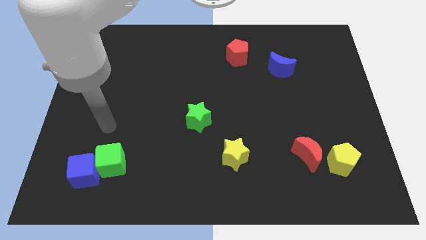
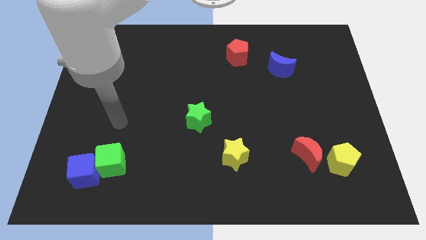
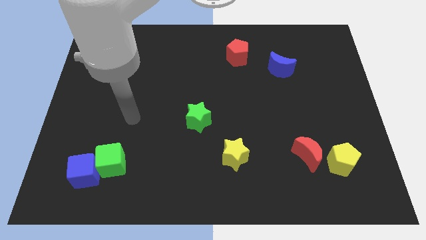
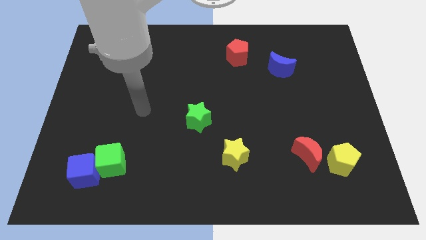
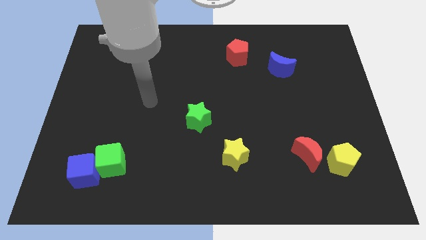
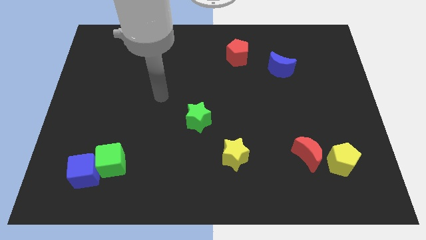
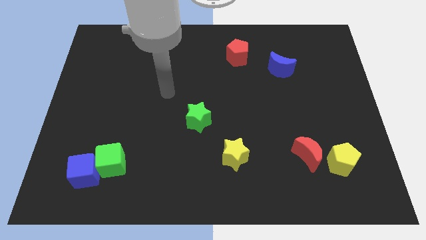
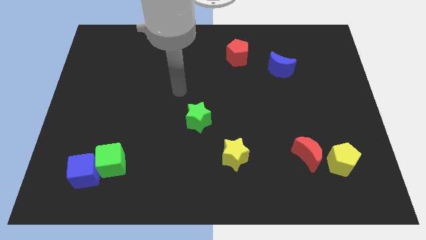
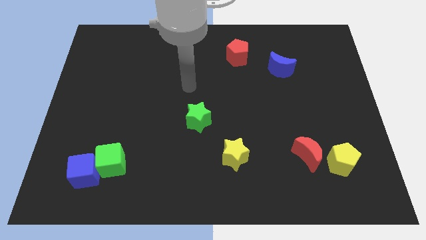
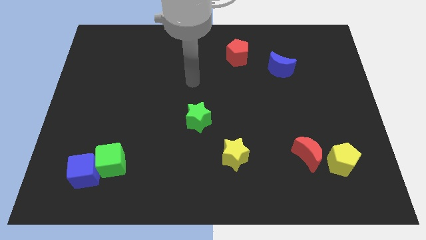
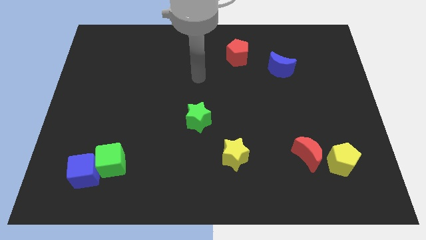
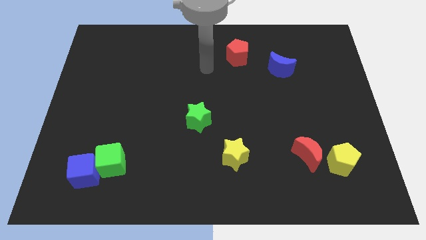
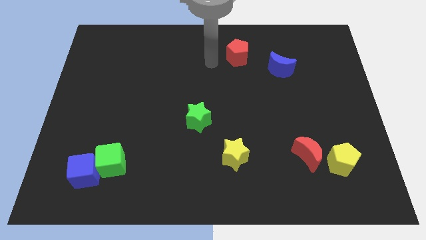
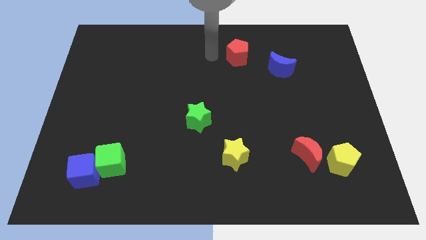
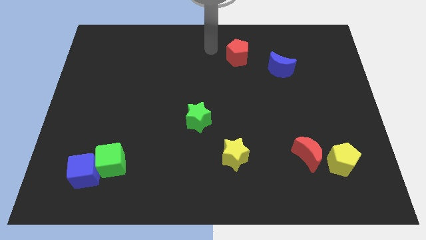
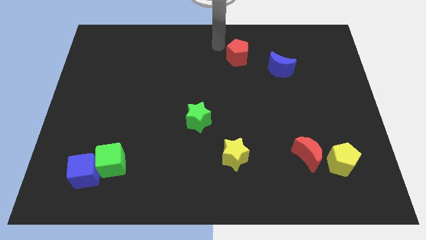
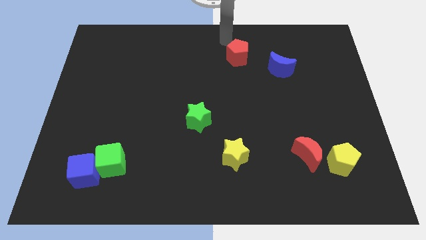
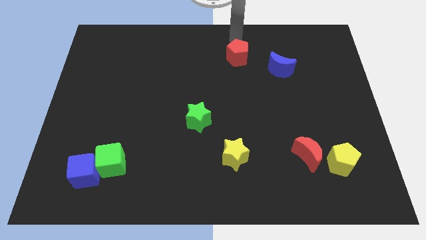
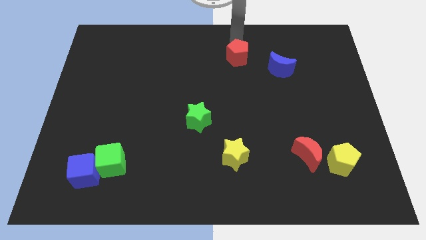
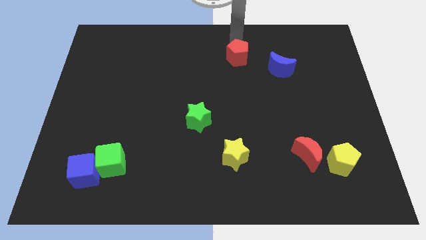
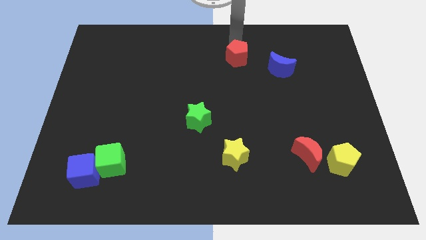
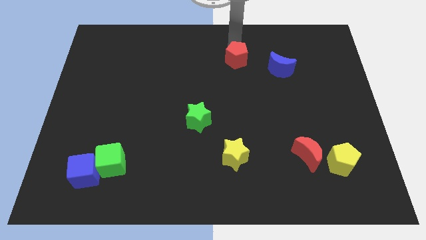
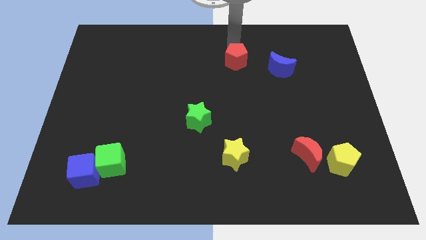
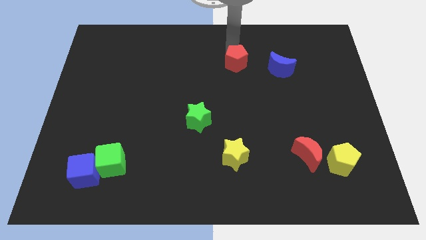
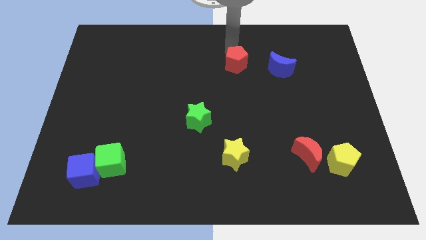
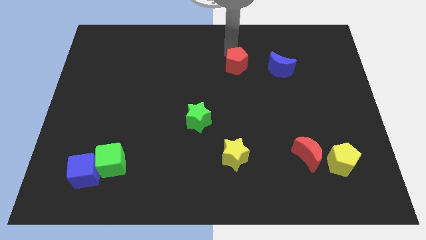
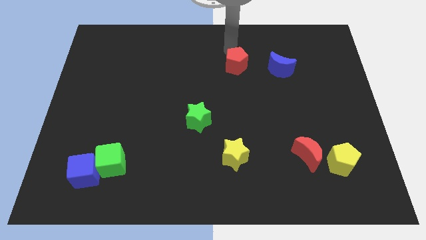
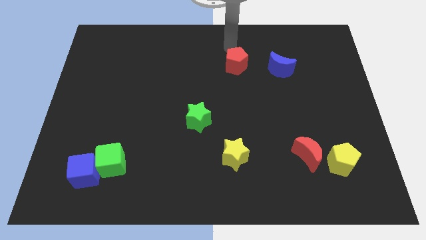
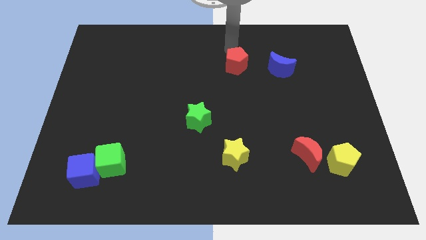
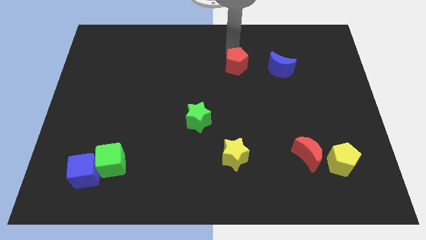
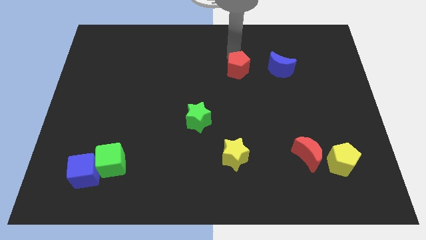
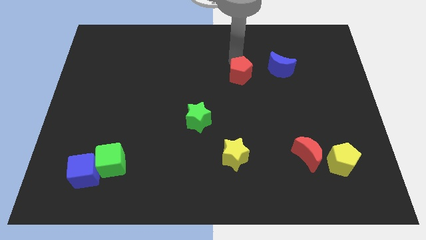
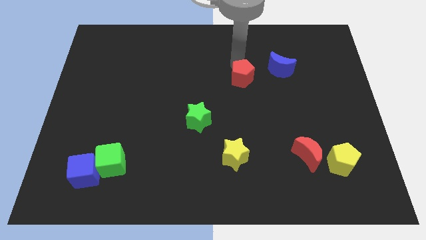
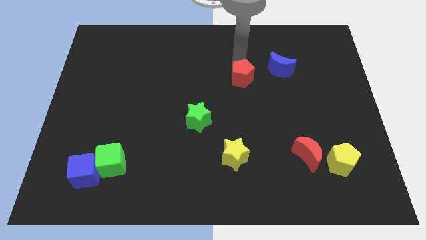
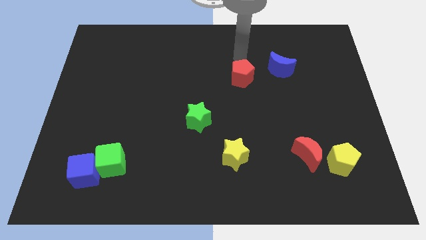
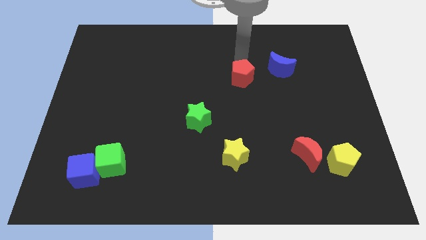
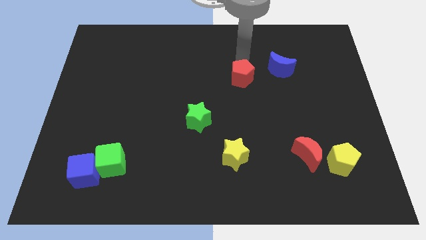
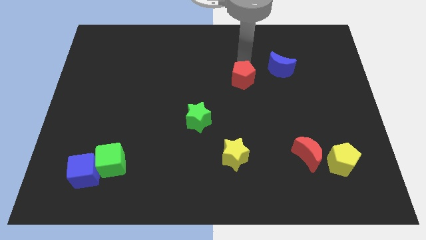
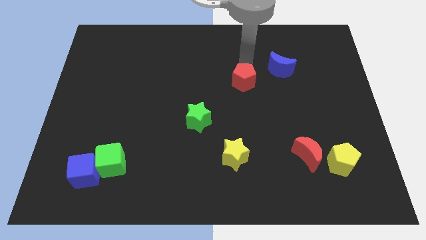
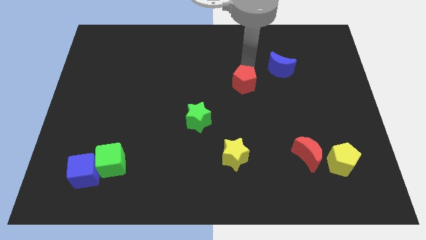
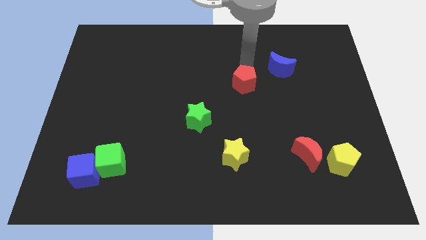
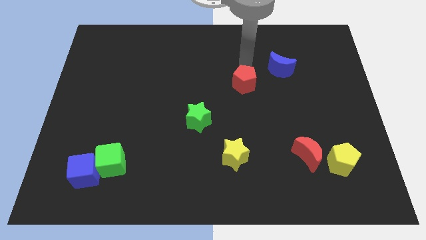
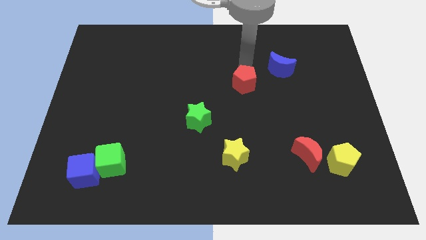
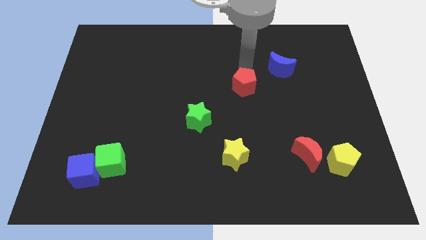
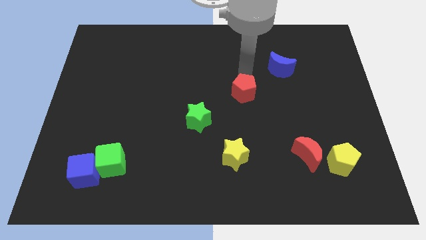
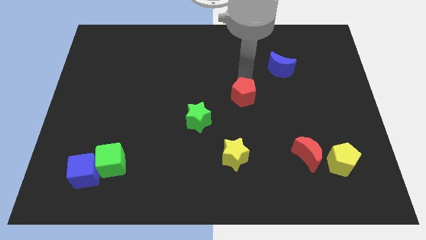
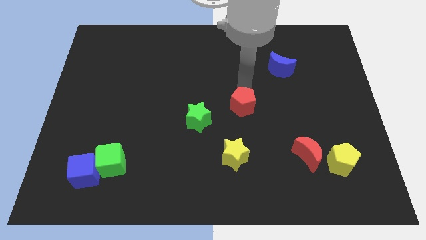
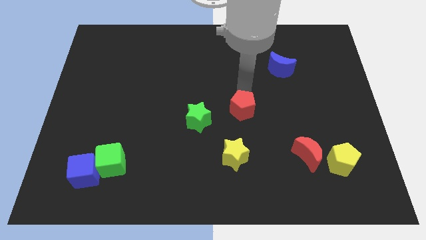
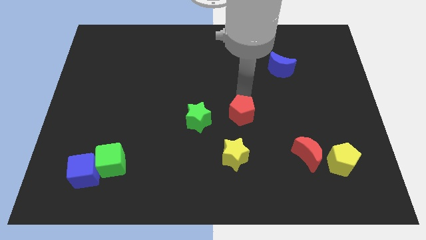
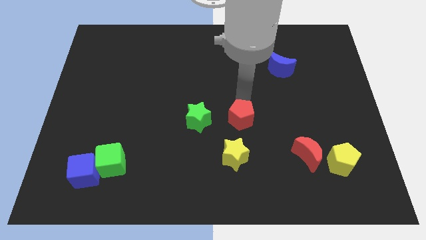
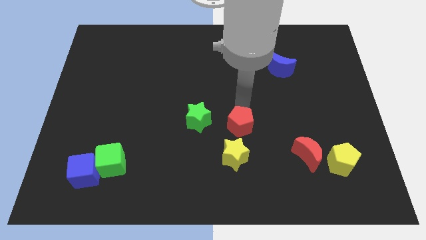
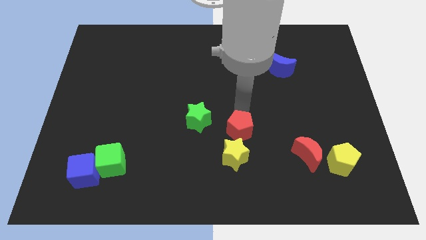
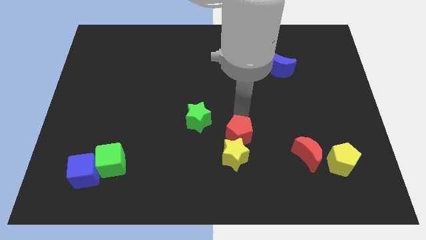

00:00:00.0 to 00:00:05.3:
put the red pentagon next to the yellow star

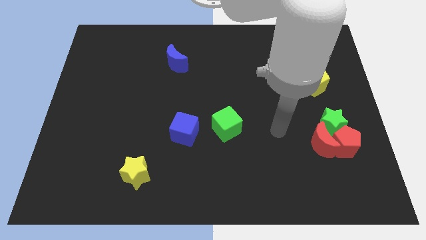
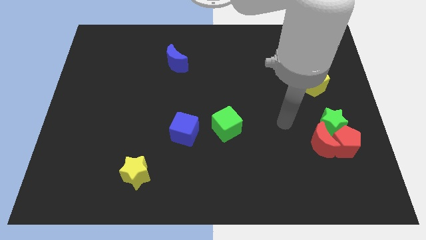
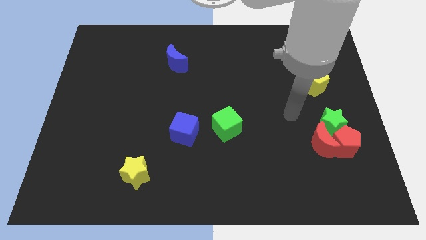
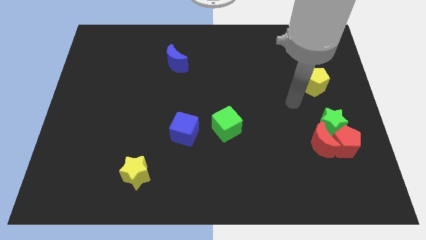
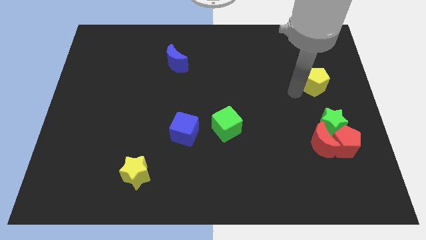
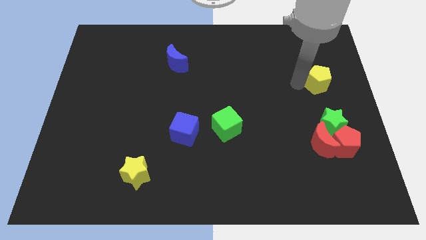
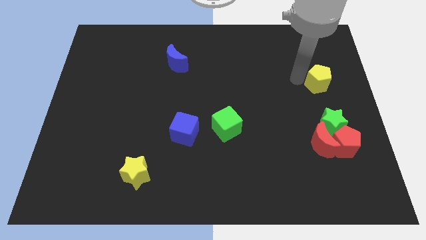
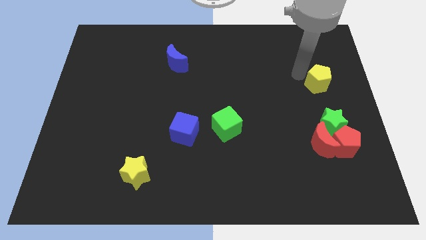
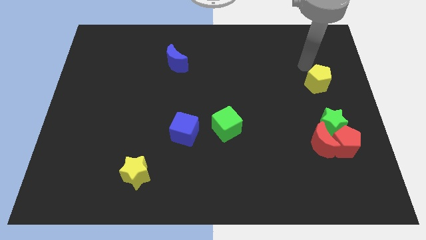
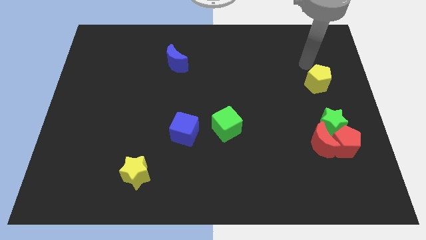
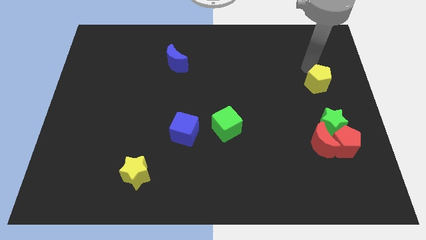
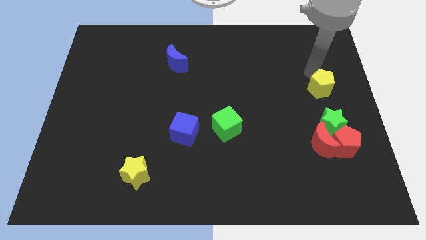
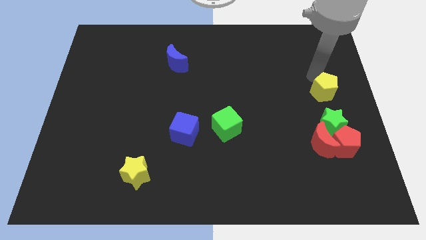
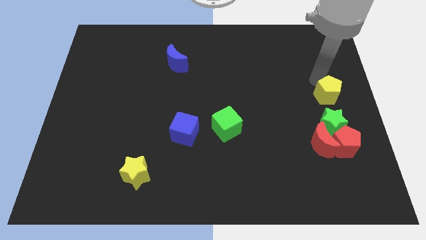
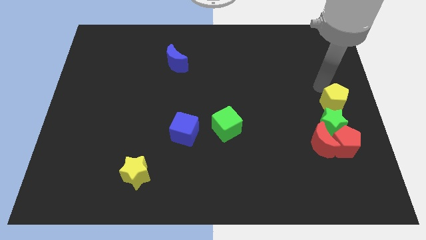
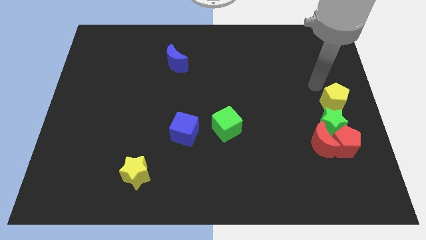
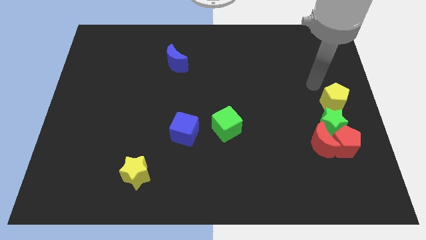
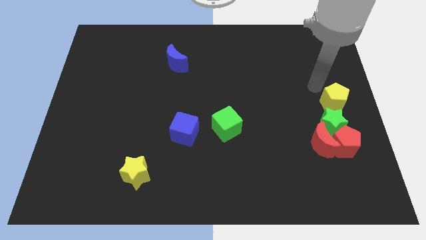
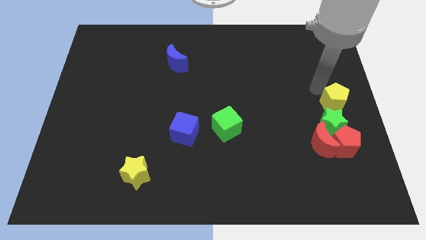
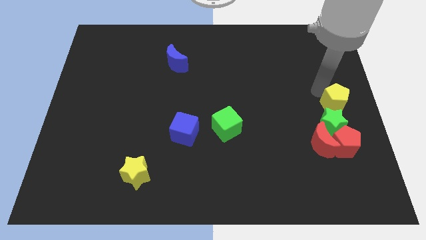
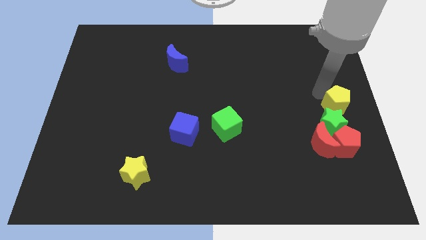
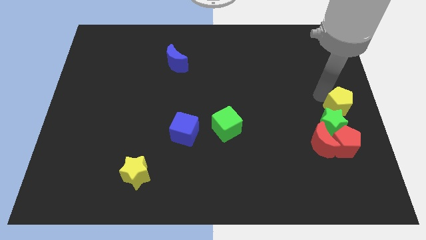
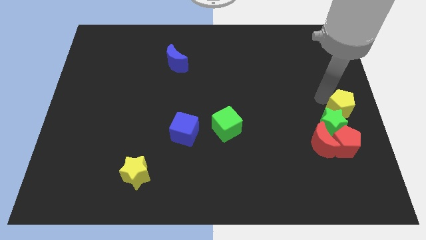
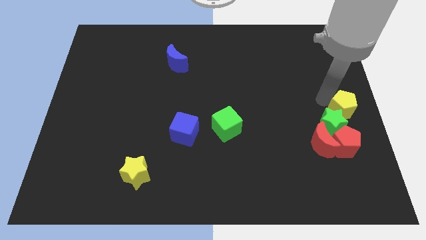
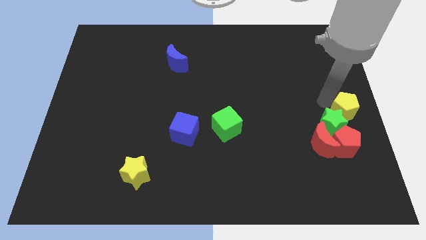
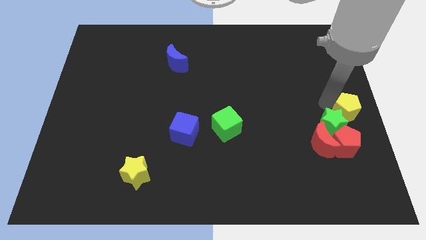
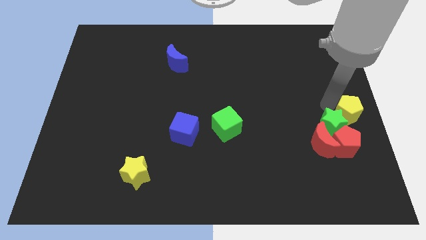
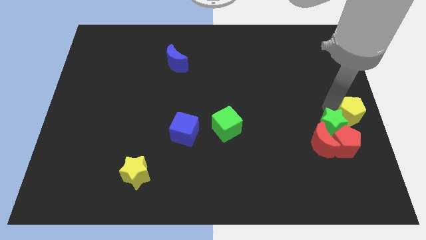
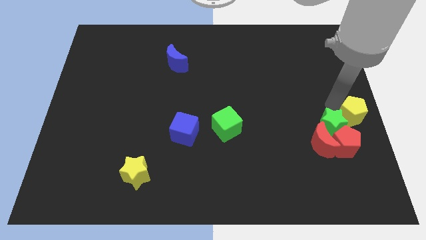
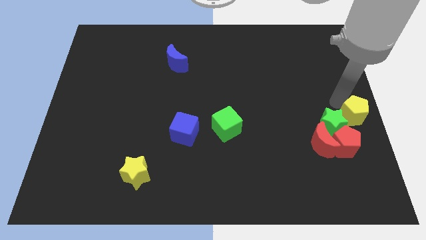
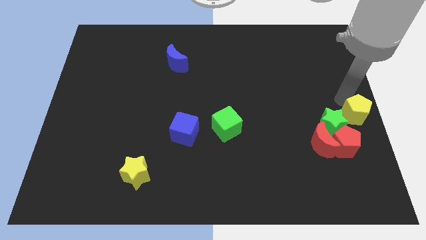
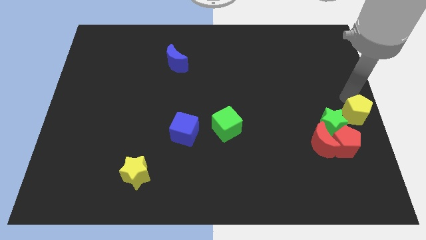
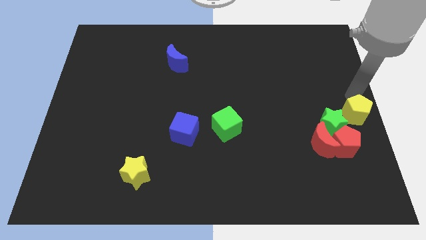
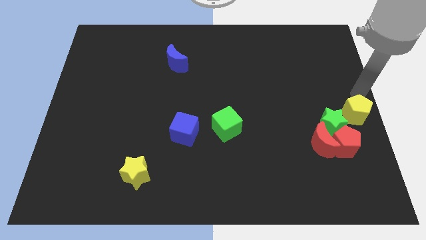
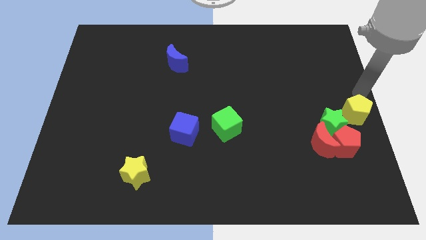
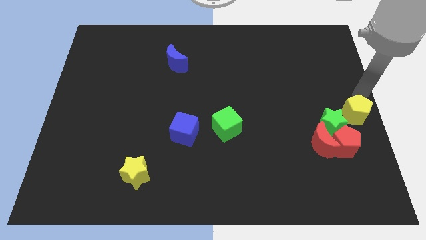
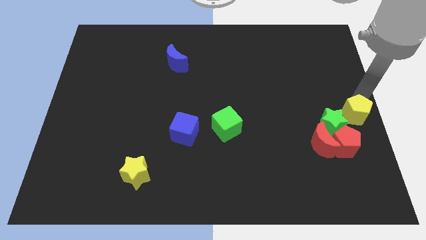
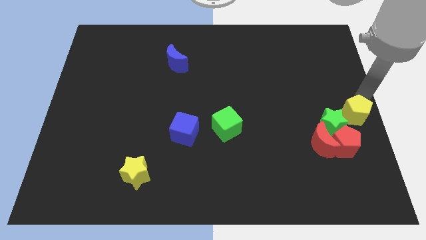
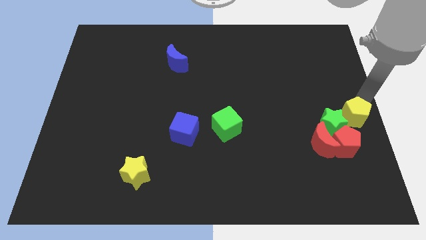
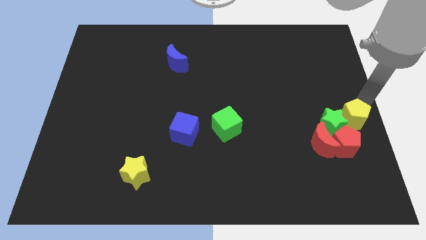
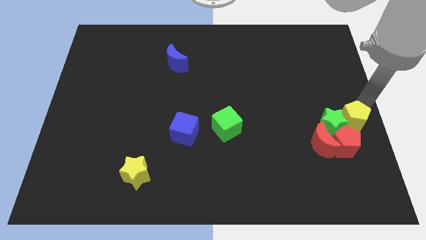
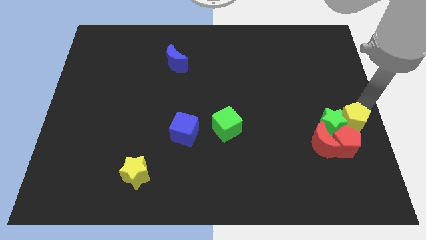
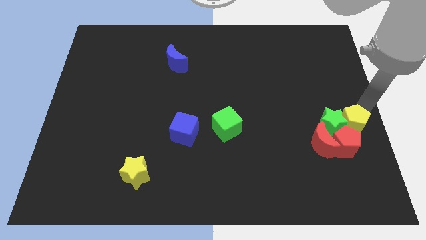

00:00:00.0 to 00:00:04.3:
put the yellow pentagon towards the red pentagon
